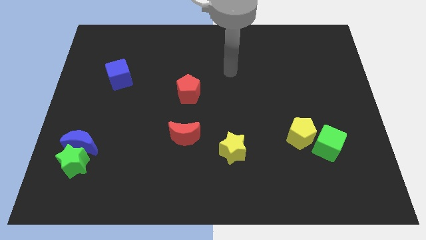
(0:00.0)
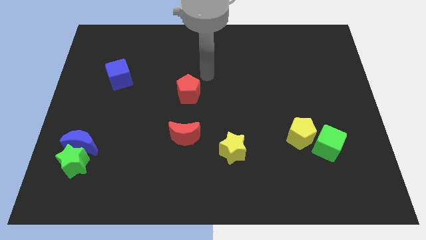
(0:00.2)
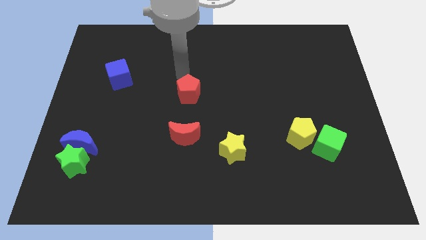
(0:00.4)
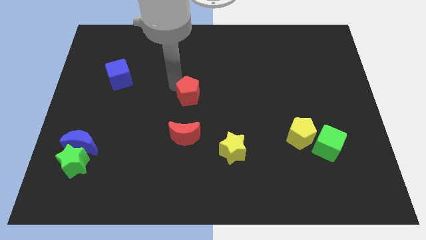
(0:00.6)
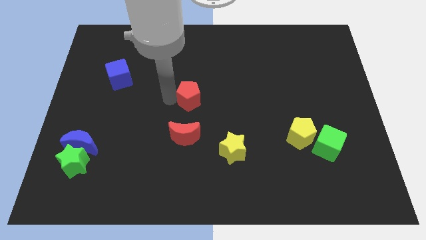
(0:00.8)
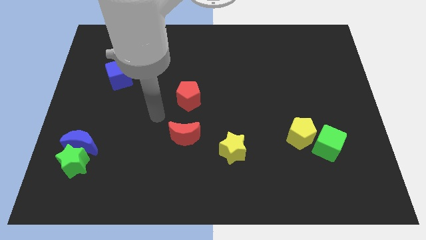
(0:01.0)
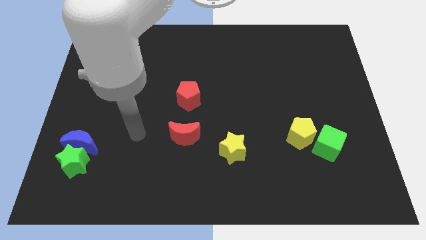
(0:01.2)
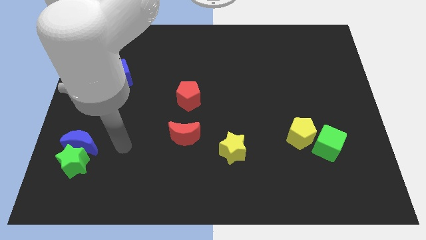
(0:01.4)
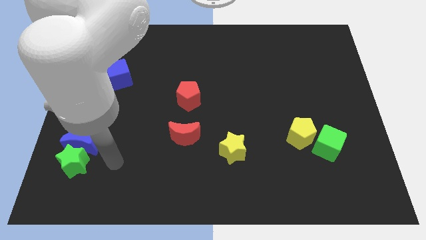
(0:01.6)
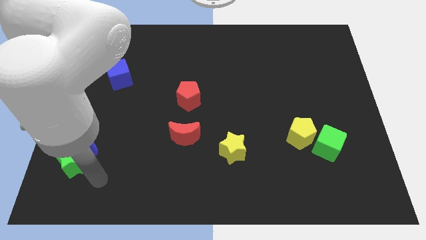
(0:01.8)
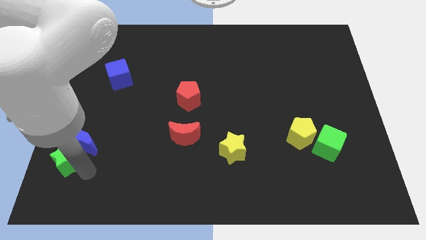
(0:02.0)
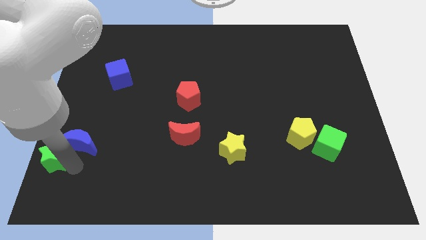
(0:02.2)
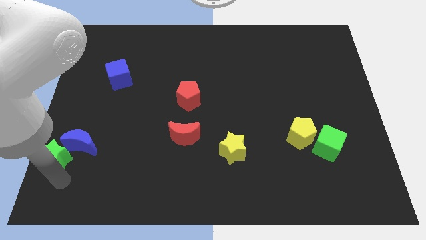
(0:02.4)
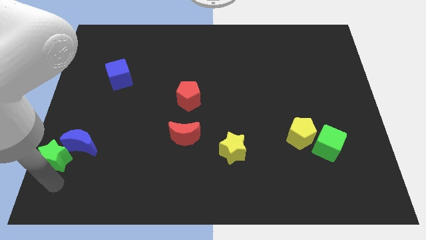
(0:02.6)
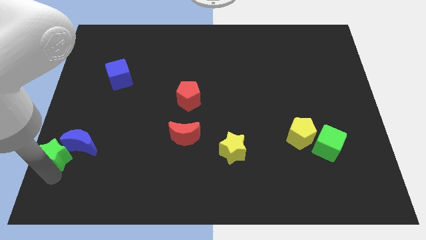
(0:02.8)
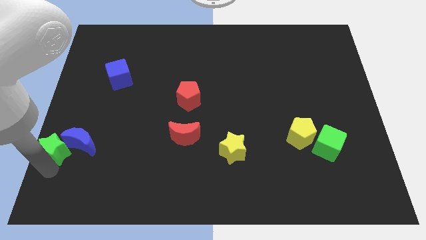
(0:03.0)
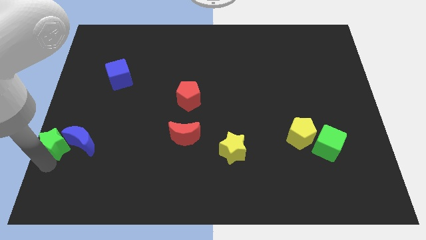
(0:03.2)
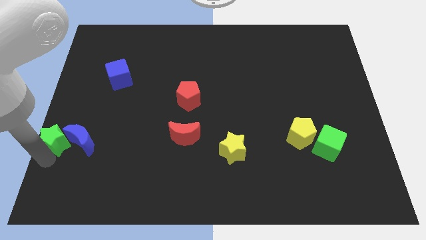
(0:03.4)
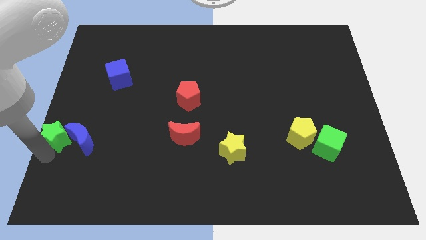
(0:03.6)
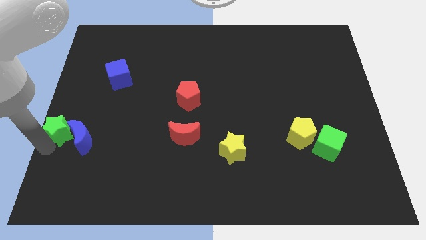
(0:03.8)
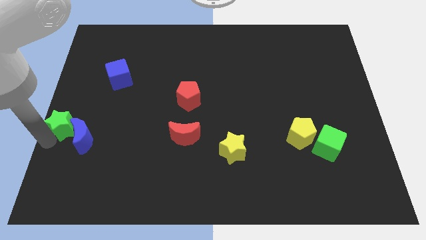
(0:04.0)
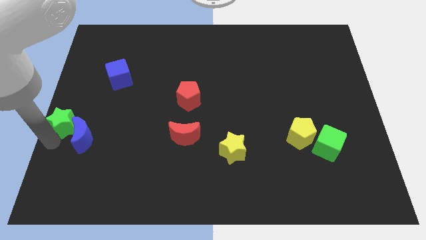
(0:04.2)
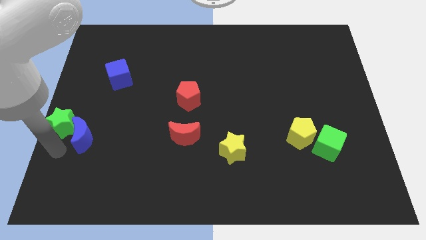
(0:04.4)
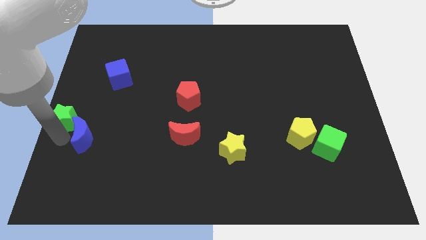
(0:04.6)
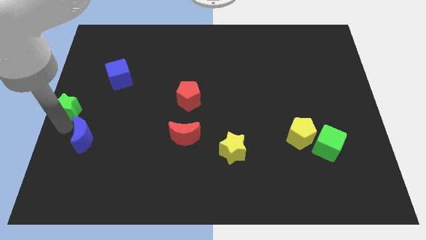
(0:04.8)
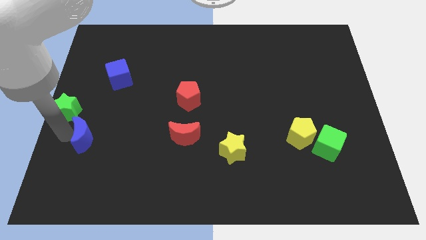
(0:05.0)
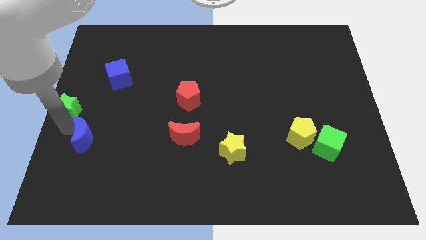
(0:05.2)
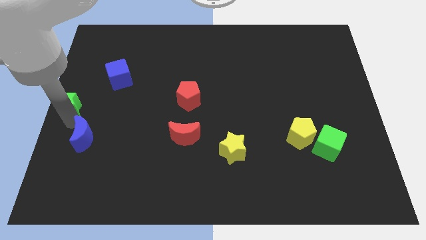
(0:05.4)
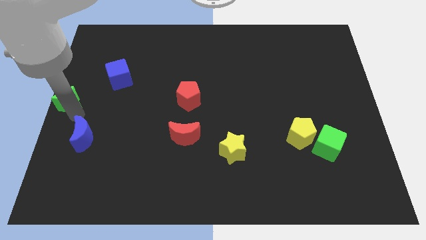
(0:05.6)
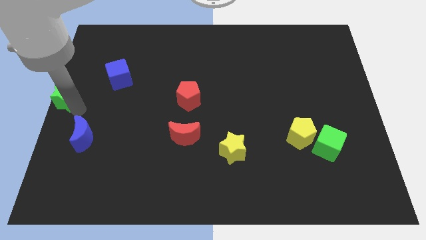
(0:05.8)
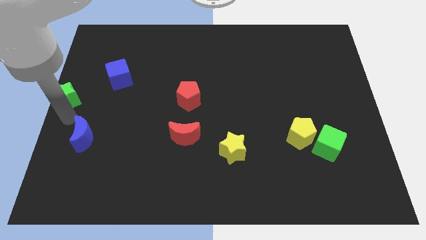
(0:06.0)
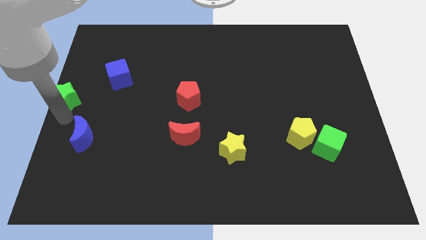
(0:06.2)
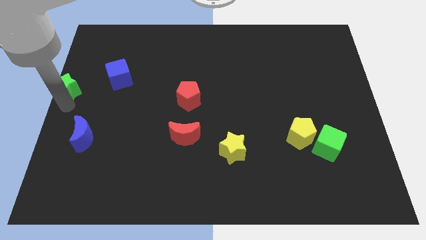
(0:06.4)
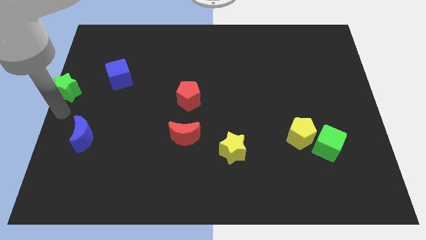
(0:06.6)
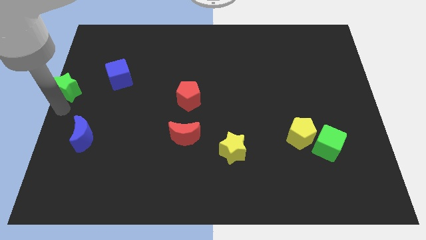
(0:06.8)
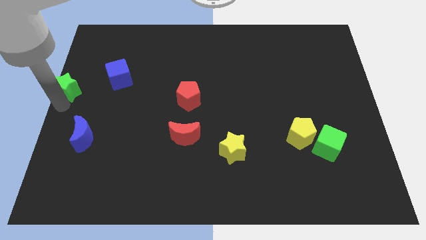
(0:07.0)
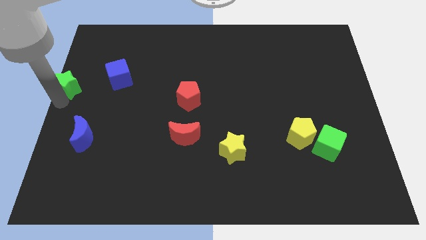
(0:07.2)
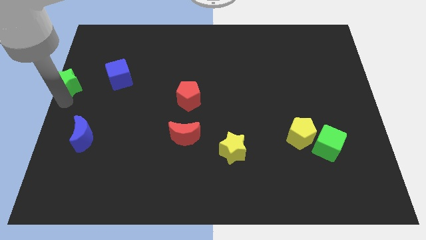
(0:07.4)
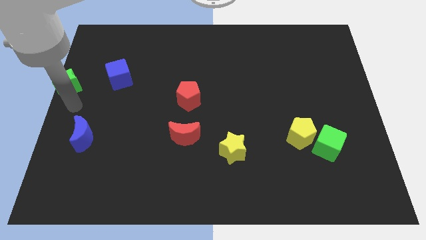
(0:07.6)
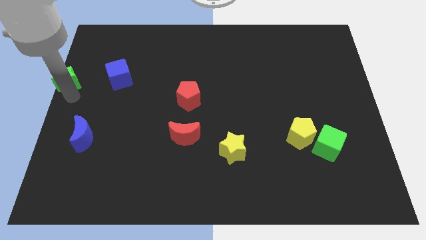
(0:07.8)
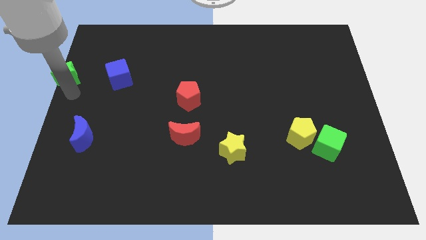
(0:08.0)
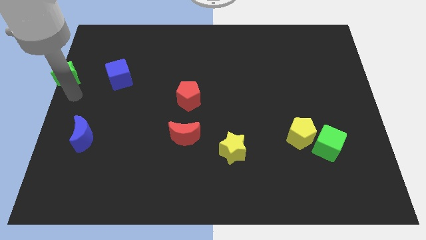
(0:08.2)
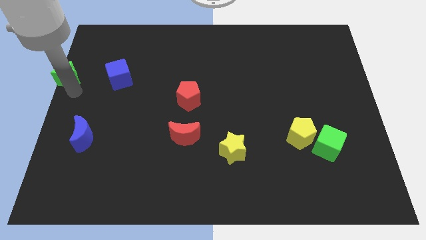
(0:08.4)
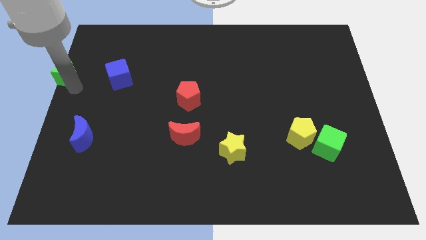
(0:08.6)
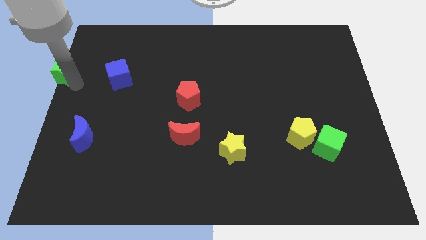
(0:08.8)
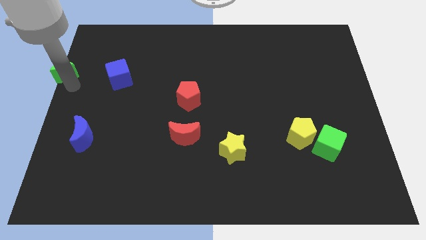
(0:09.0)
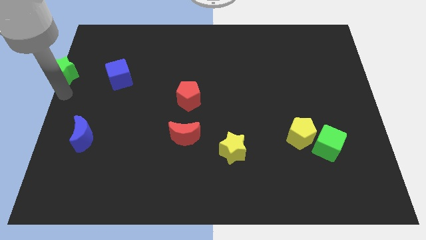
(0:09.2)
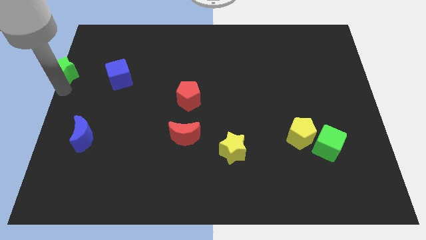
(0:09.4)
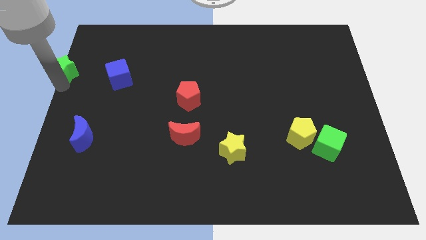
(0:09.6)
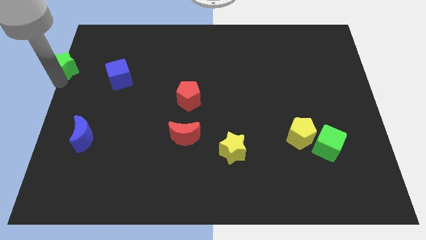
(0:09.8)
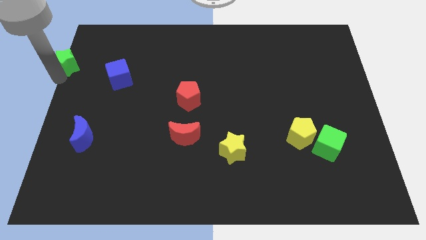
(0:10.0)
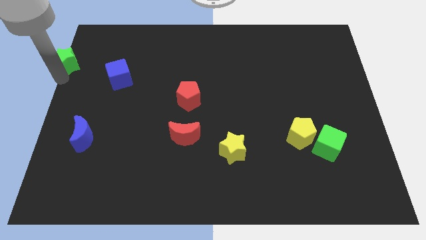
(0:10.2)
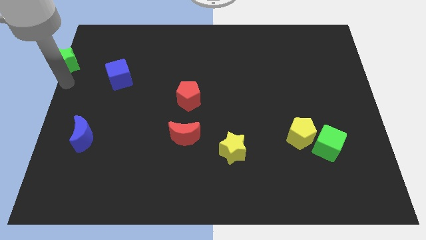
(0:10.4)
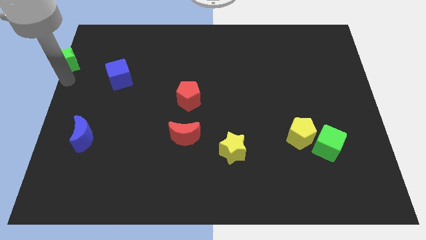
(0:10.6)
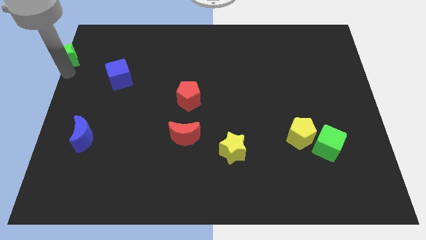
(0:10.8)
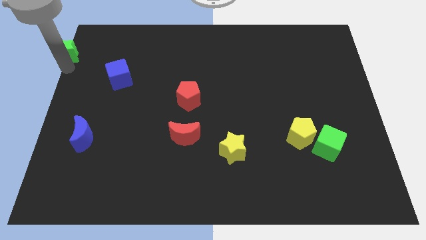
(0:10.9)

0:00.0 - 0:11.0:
put the green star to the top left
